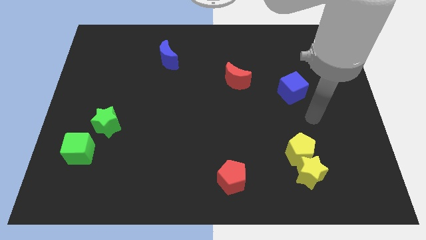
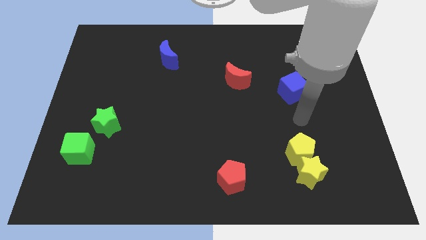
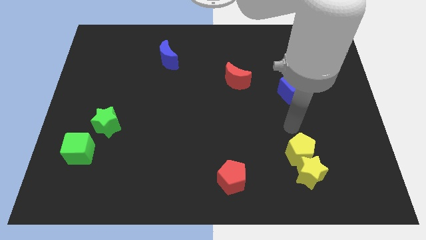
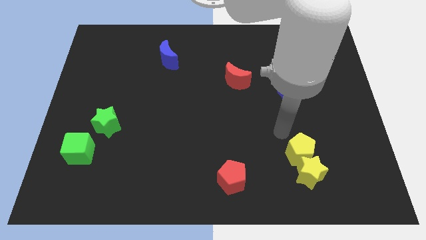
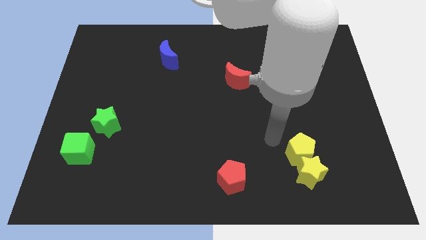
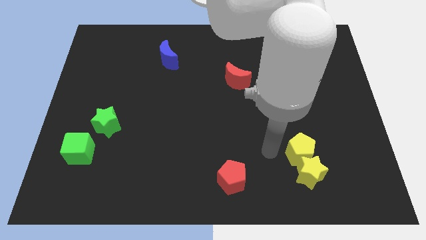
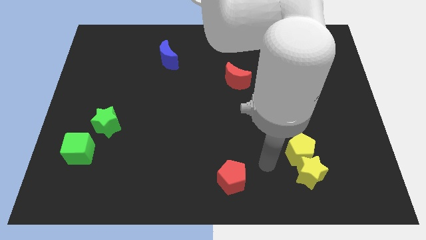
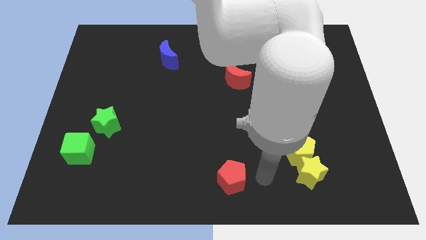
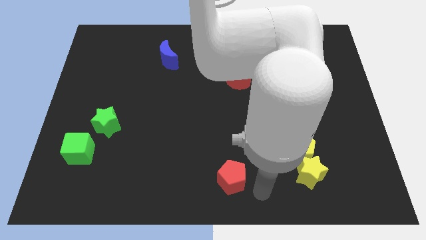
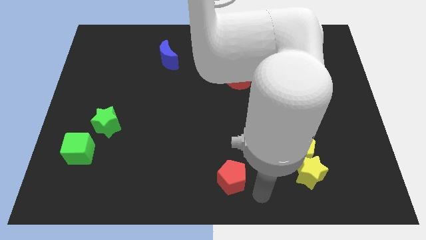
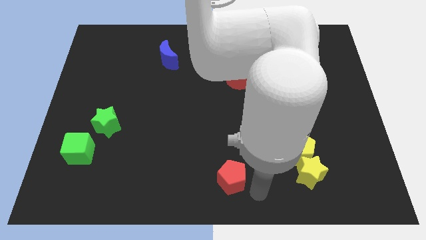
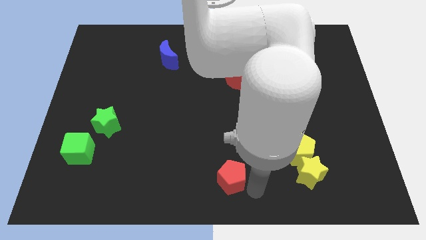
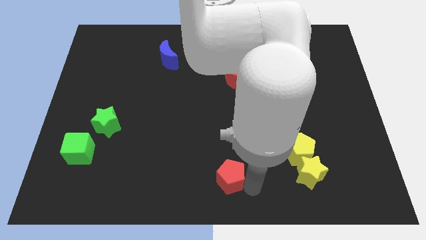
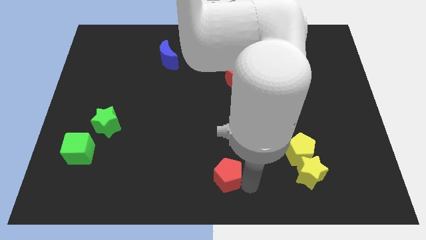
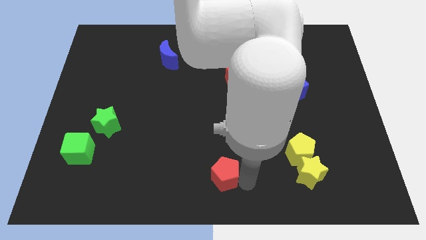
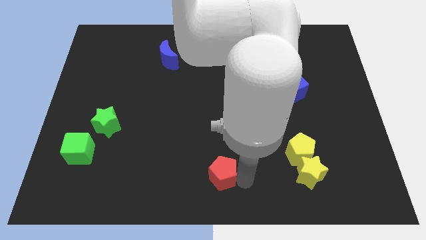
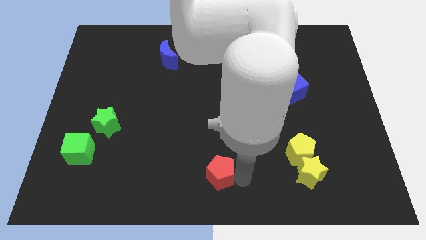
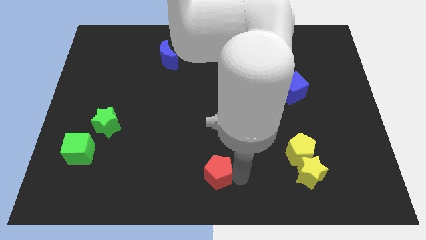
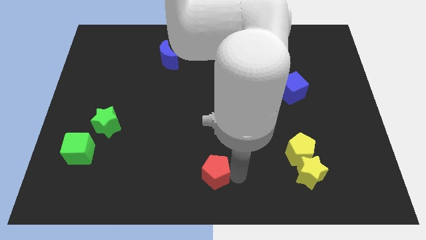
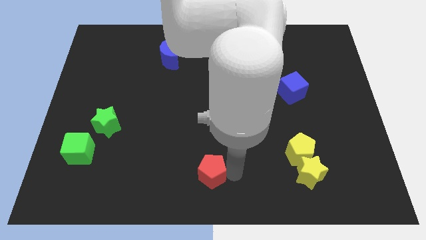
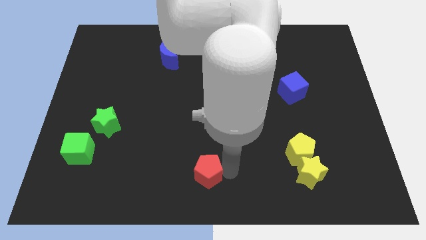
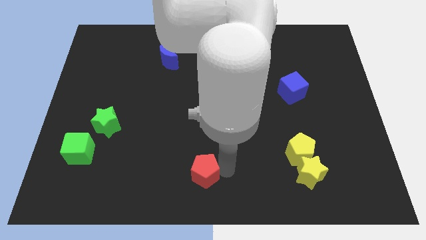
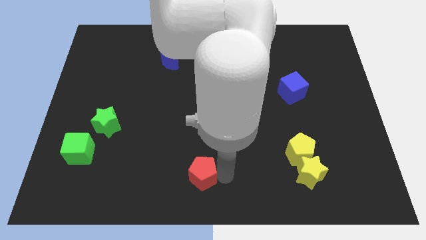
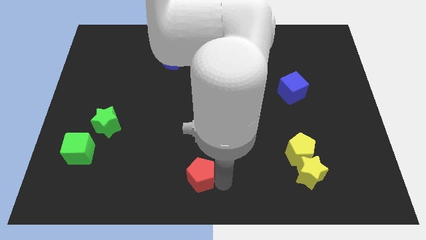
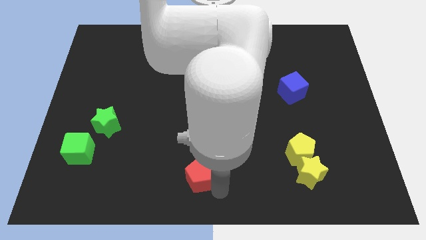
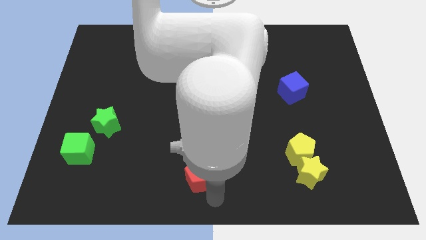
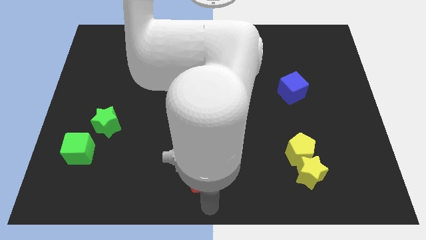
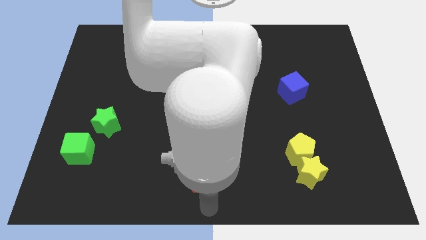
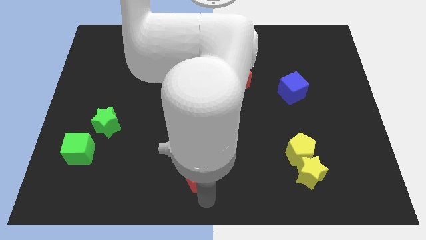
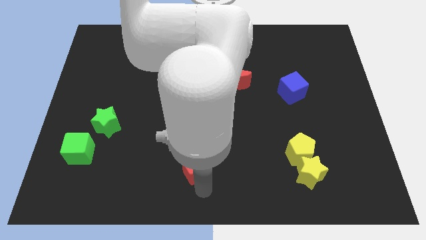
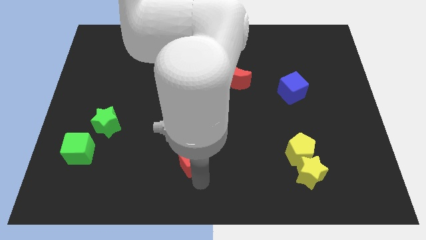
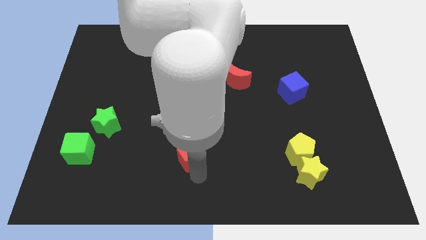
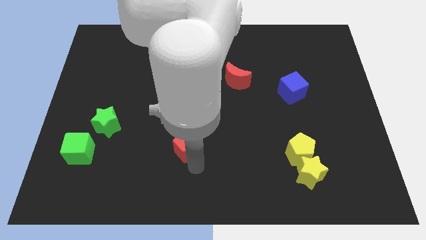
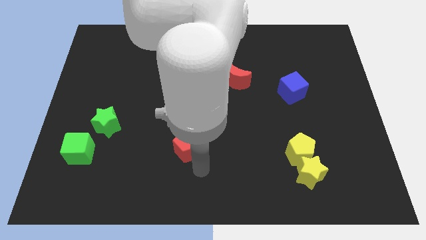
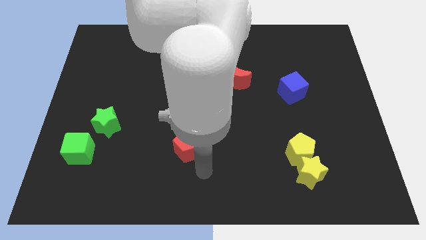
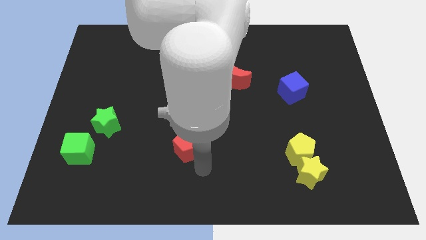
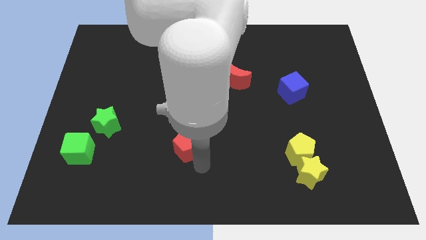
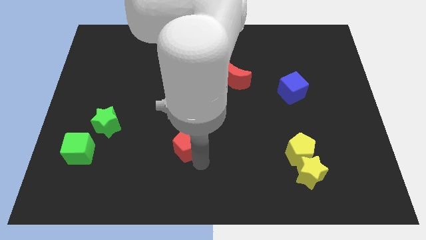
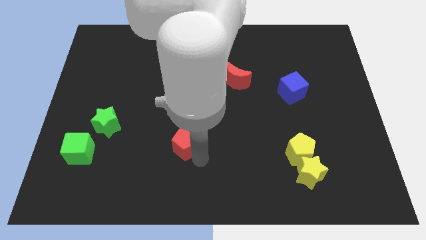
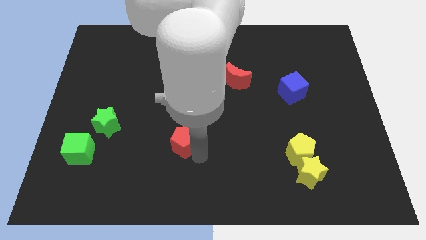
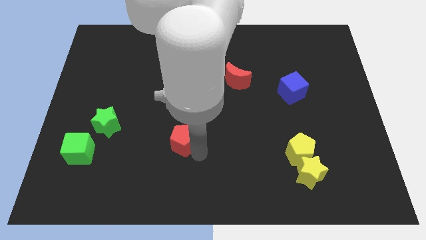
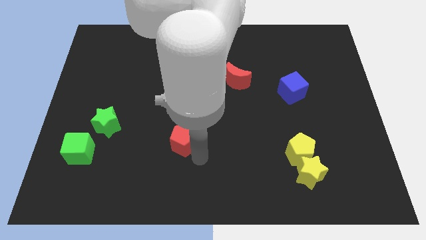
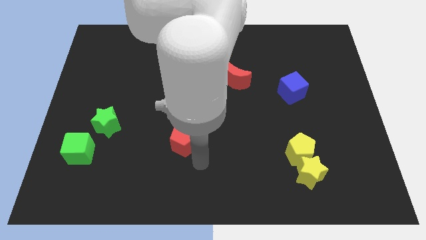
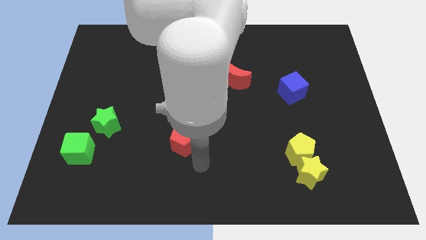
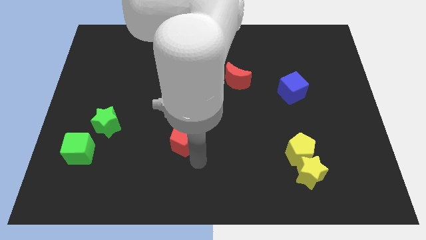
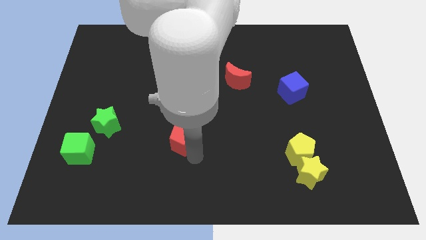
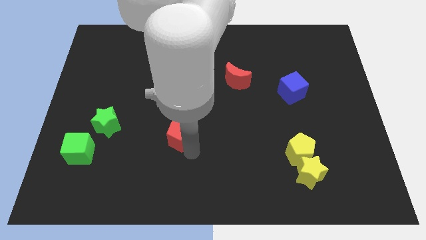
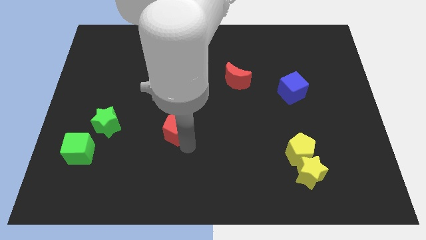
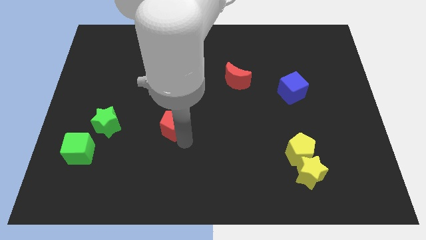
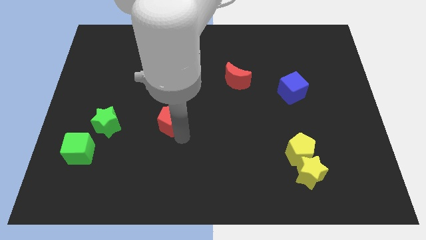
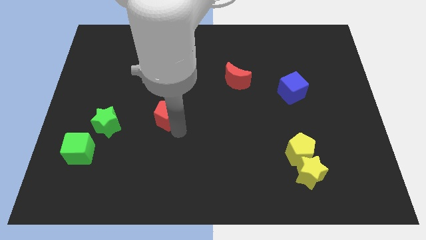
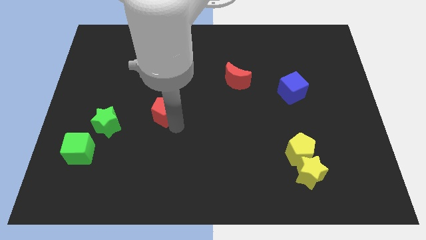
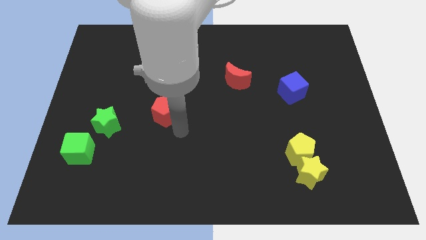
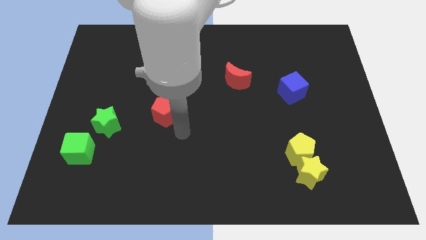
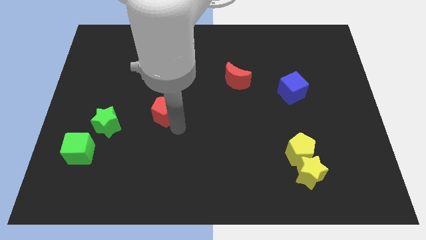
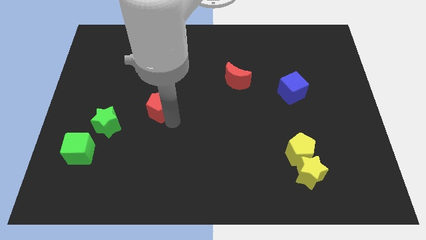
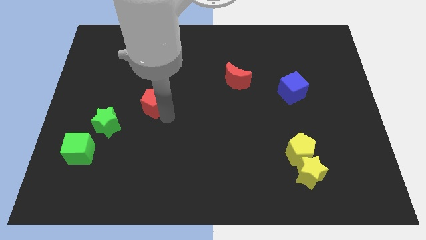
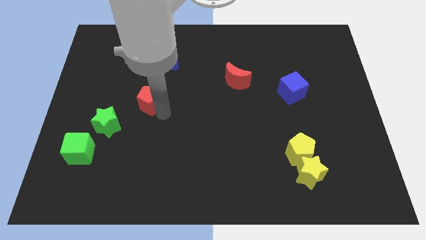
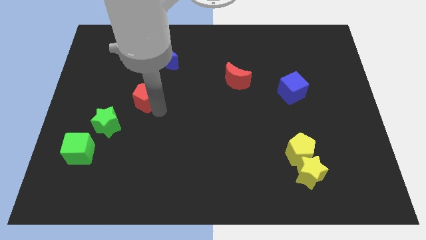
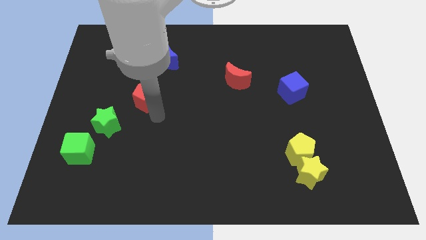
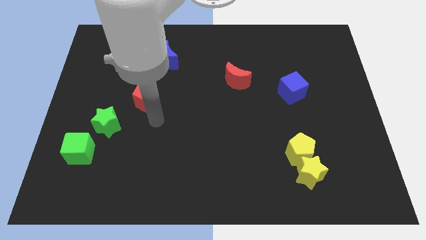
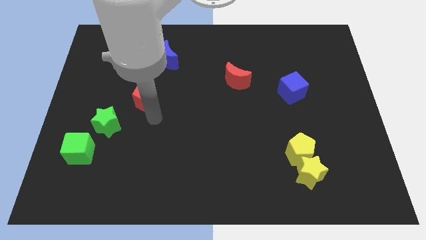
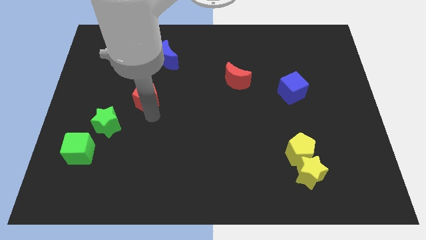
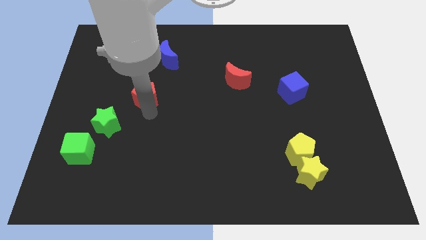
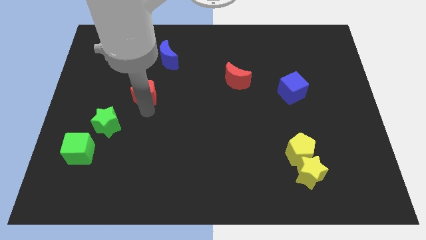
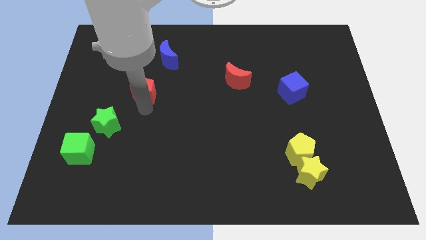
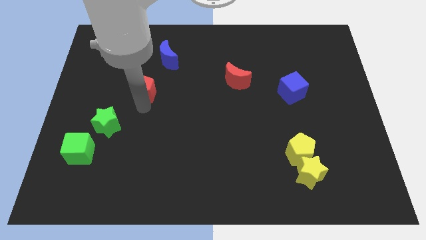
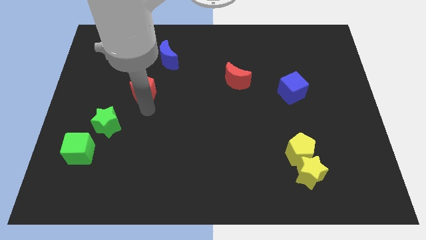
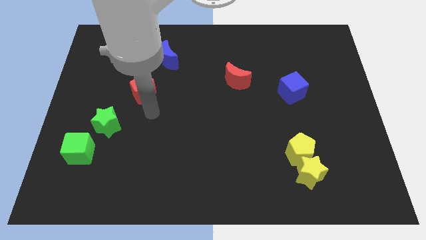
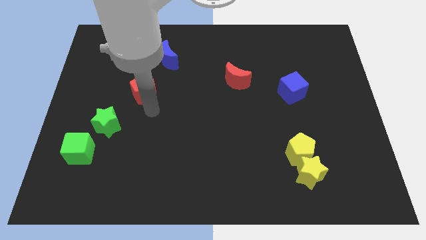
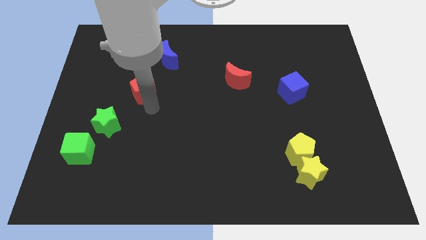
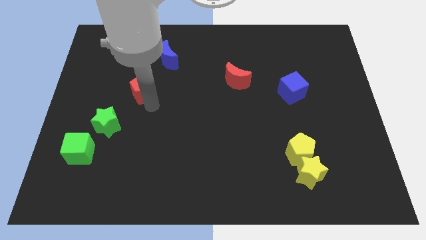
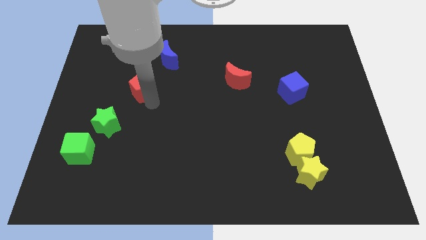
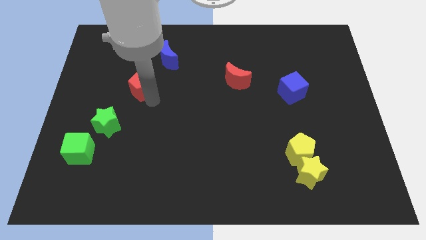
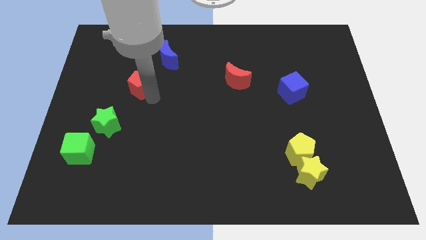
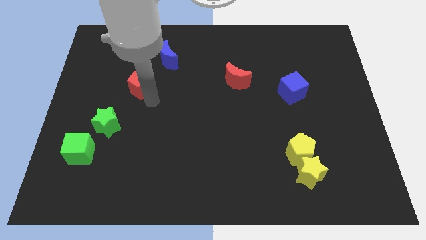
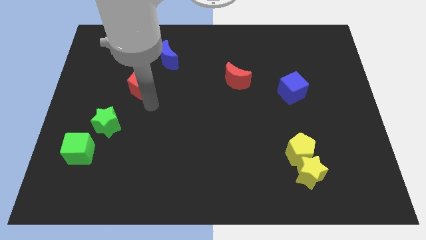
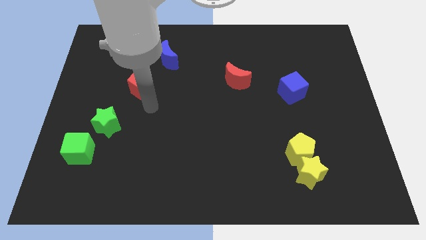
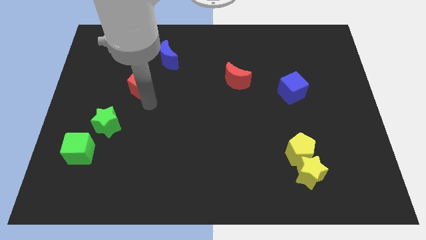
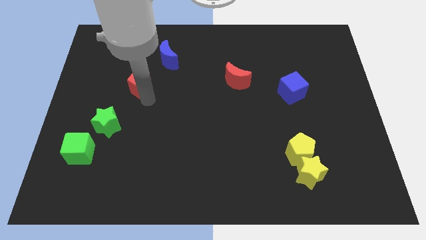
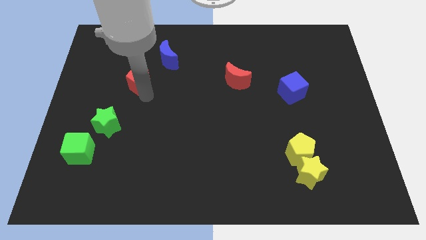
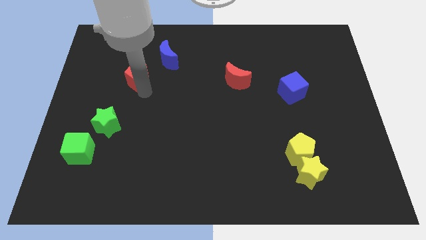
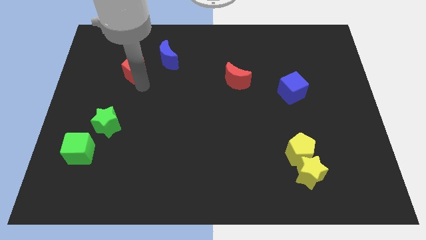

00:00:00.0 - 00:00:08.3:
push the red pentagon left of the blue moon
